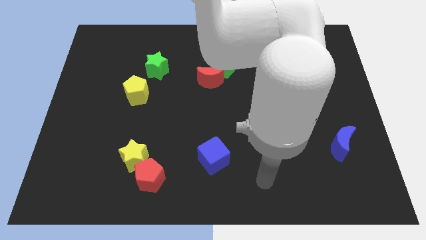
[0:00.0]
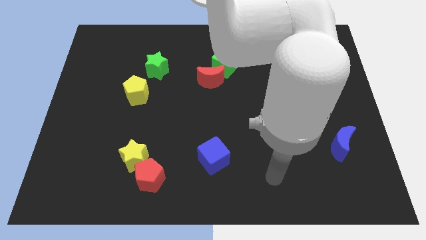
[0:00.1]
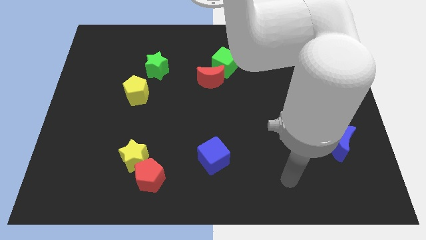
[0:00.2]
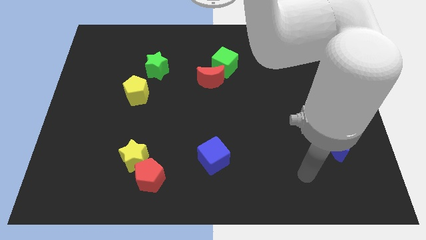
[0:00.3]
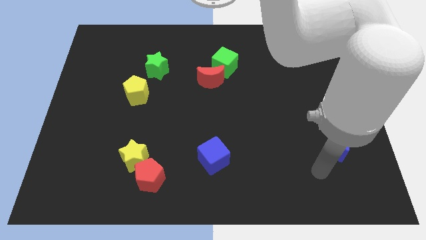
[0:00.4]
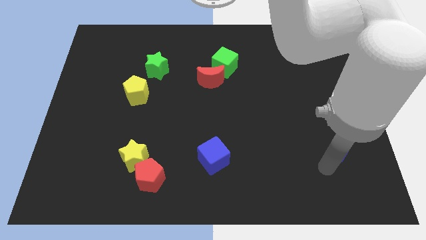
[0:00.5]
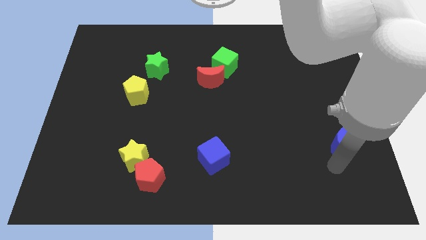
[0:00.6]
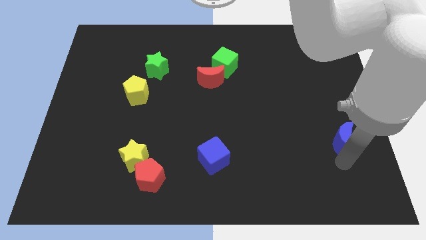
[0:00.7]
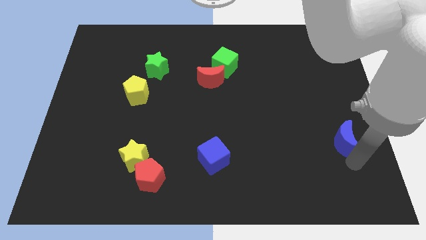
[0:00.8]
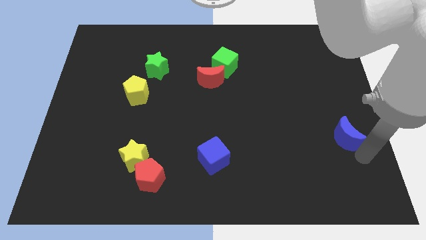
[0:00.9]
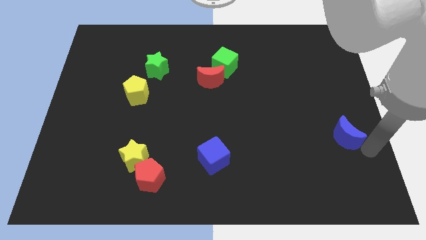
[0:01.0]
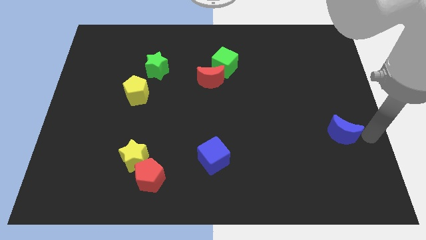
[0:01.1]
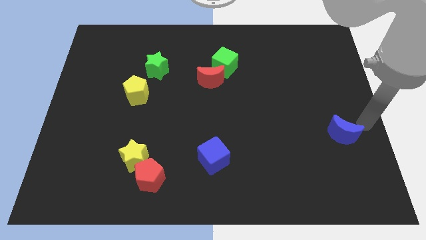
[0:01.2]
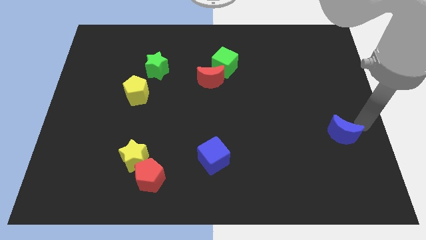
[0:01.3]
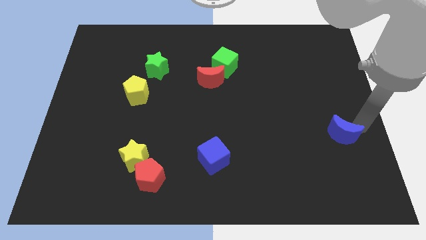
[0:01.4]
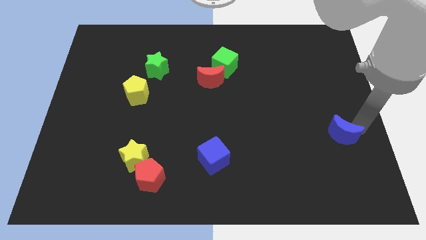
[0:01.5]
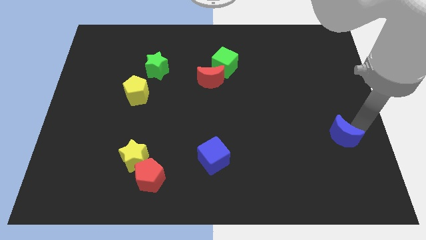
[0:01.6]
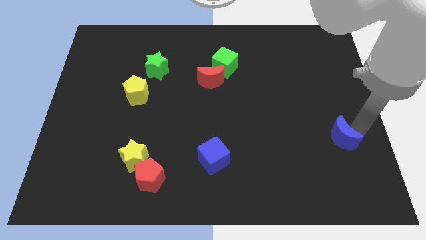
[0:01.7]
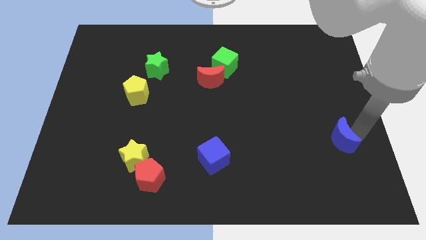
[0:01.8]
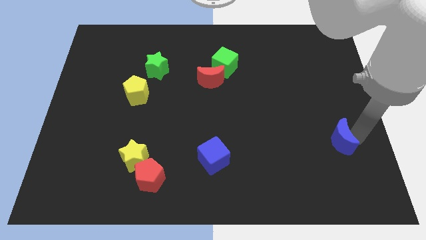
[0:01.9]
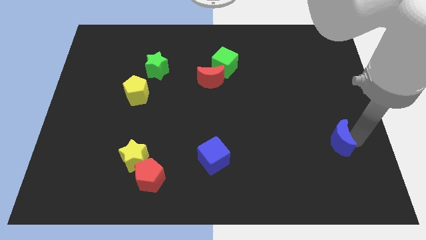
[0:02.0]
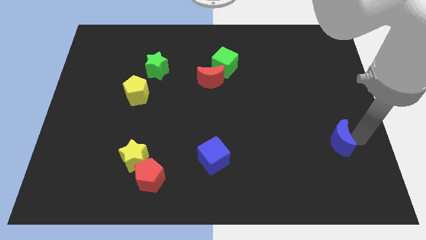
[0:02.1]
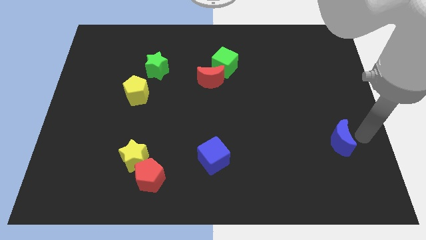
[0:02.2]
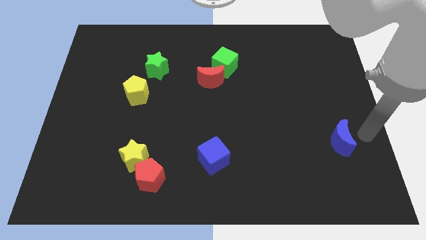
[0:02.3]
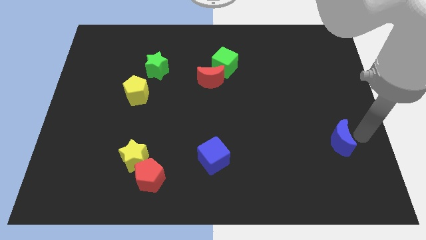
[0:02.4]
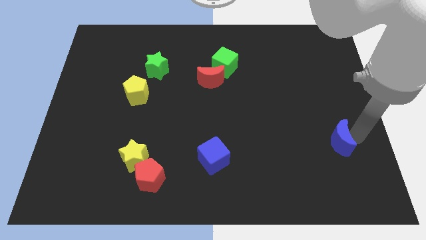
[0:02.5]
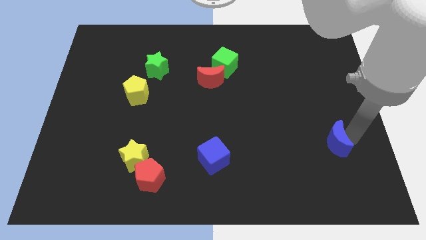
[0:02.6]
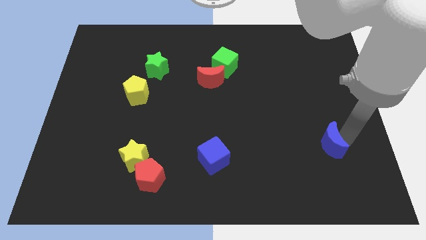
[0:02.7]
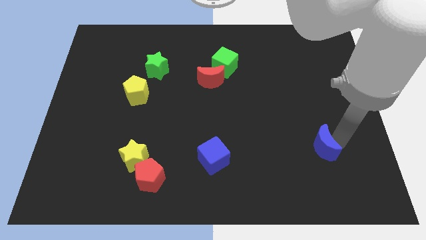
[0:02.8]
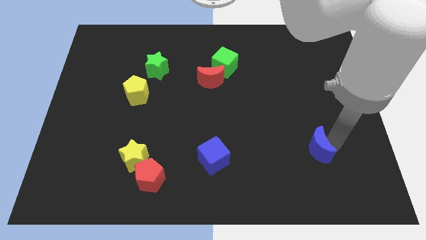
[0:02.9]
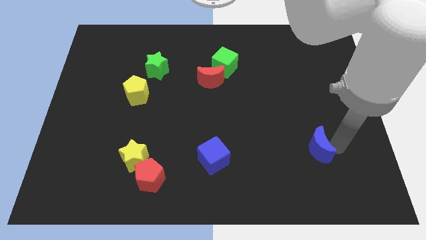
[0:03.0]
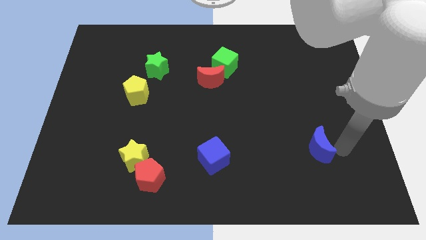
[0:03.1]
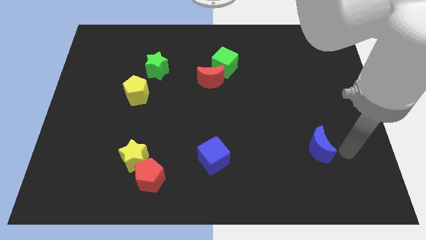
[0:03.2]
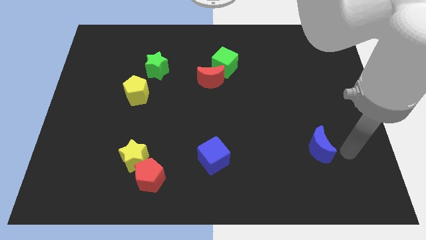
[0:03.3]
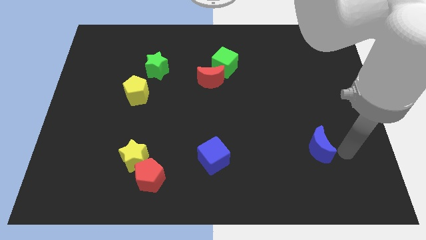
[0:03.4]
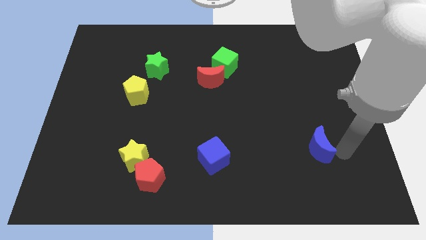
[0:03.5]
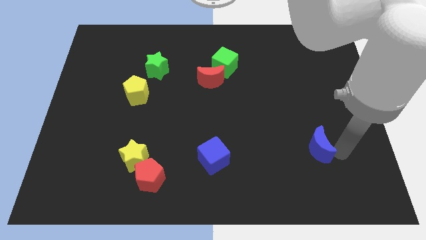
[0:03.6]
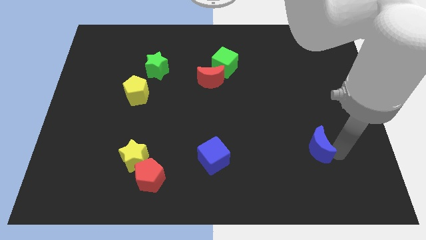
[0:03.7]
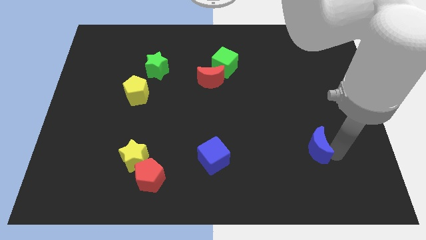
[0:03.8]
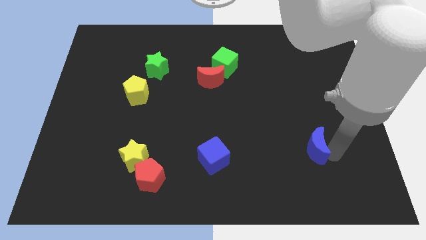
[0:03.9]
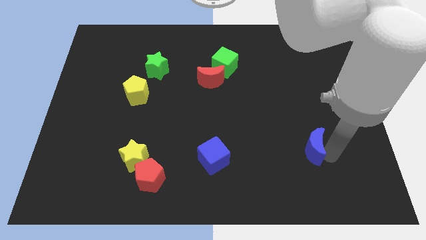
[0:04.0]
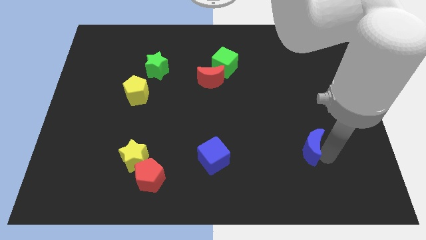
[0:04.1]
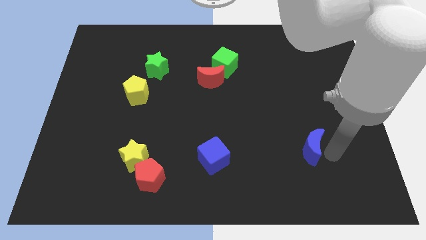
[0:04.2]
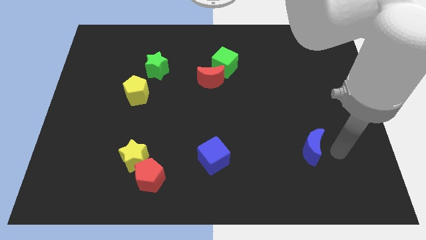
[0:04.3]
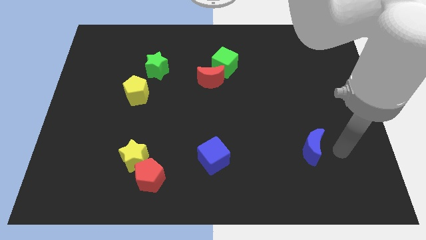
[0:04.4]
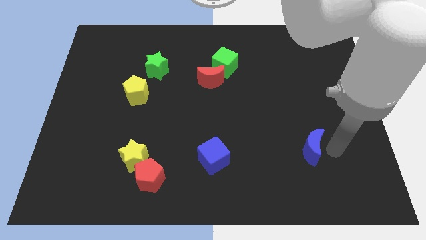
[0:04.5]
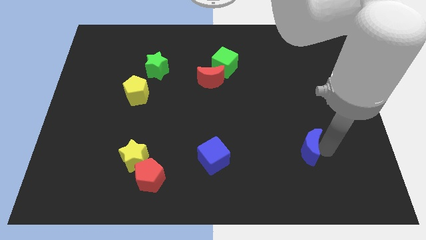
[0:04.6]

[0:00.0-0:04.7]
move the blue moon to the left a little bit

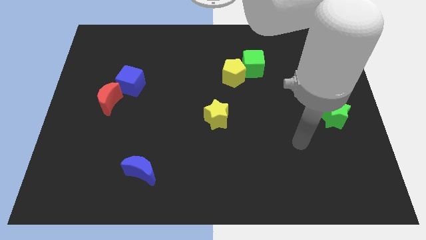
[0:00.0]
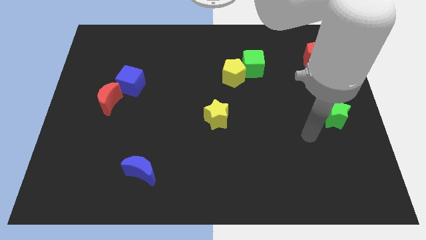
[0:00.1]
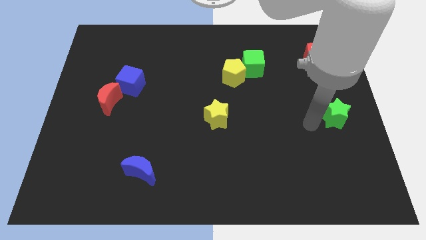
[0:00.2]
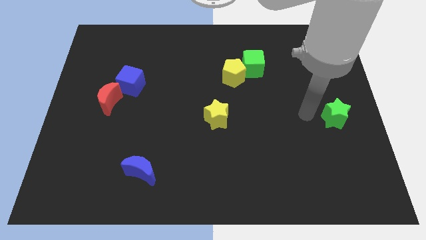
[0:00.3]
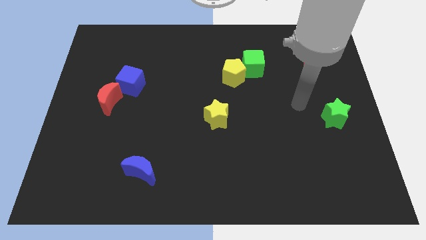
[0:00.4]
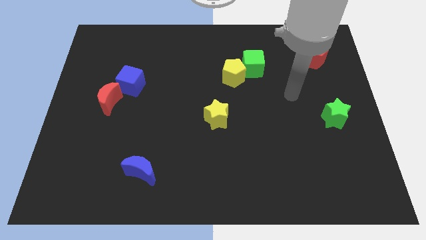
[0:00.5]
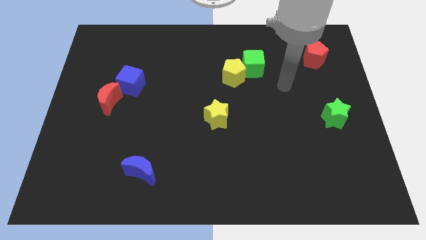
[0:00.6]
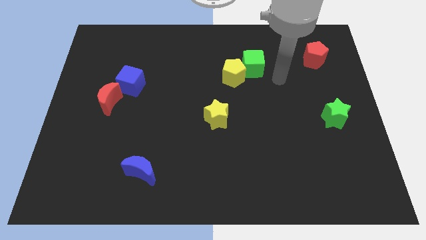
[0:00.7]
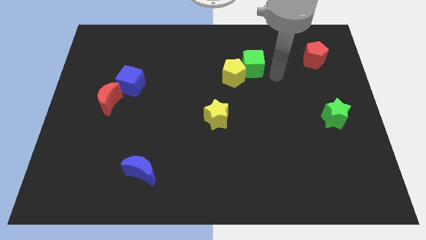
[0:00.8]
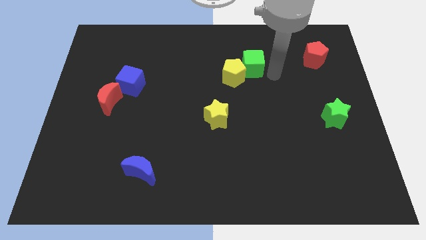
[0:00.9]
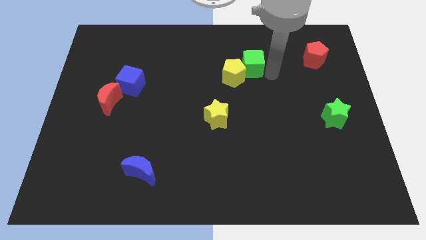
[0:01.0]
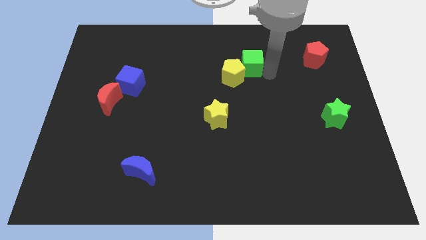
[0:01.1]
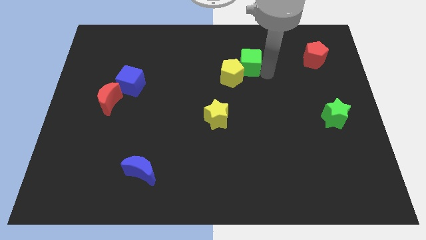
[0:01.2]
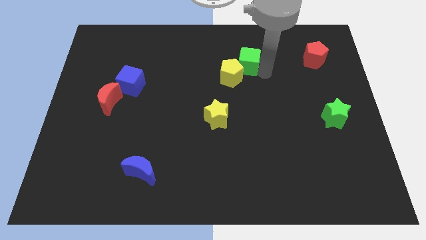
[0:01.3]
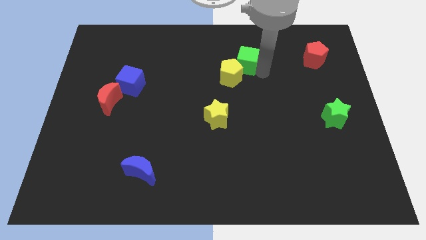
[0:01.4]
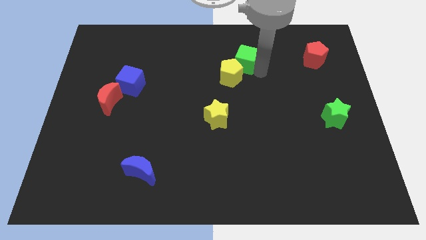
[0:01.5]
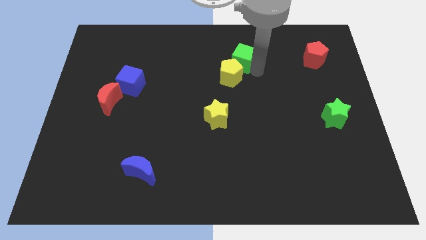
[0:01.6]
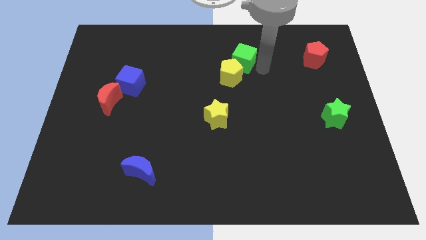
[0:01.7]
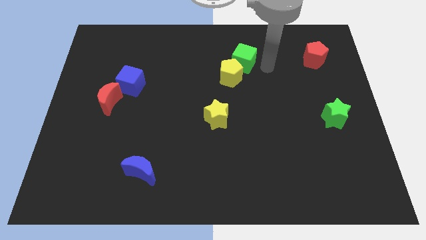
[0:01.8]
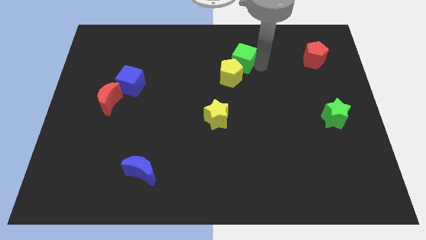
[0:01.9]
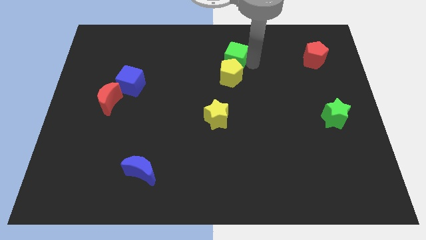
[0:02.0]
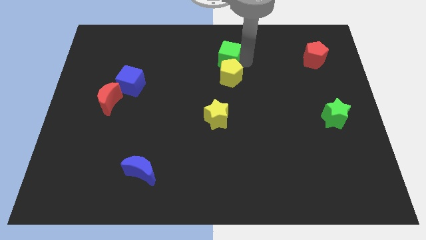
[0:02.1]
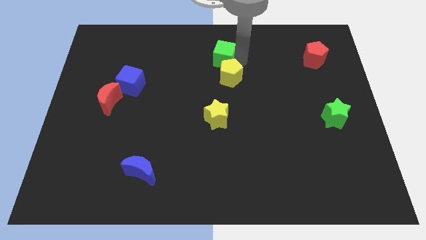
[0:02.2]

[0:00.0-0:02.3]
slide the green cube somewhat to the left

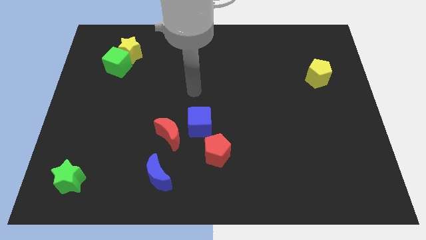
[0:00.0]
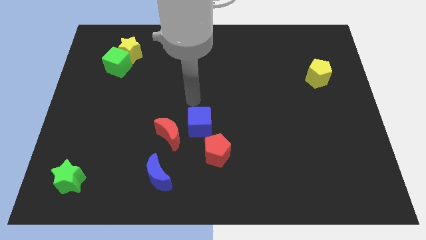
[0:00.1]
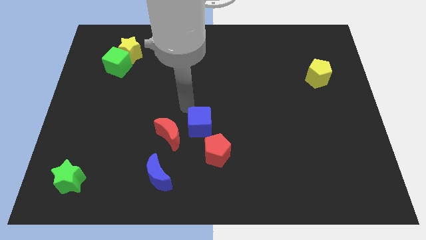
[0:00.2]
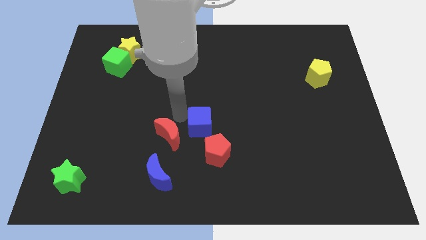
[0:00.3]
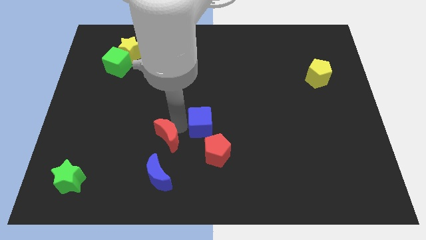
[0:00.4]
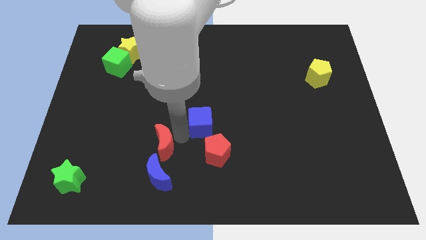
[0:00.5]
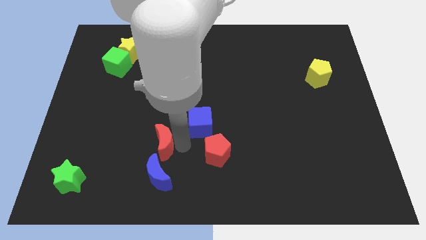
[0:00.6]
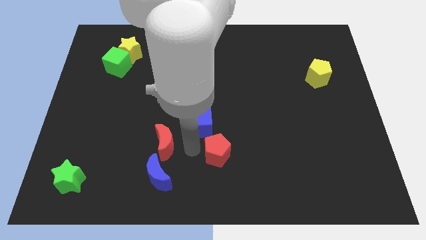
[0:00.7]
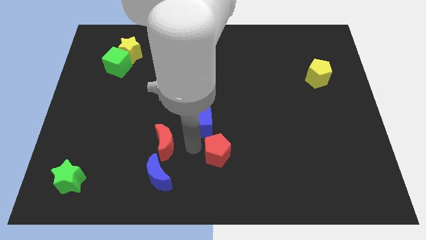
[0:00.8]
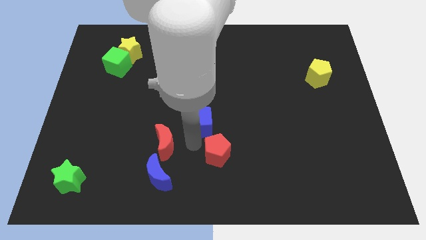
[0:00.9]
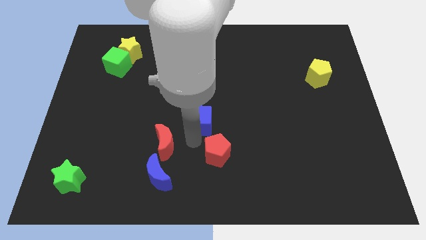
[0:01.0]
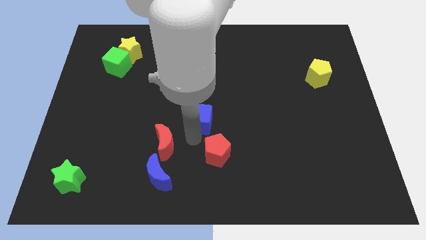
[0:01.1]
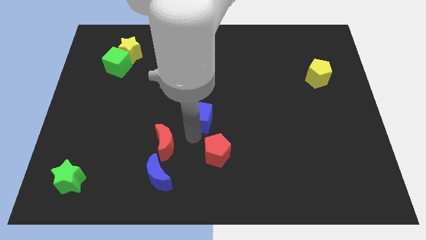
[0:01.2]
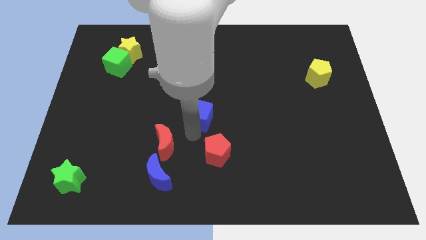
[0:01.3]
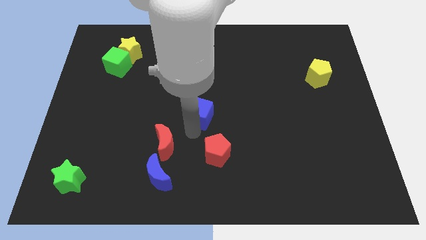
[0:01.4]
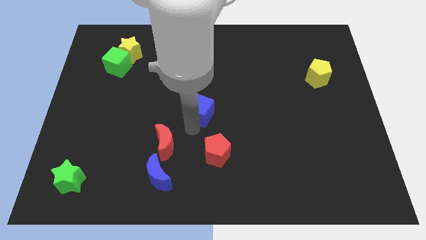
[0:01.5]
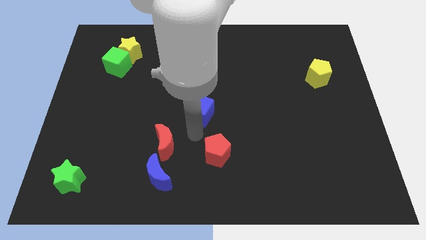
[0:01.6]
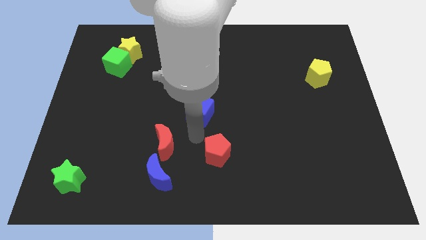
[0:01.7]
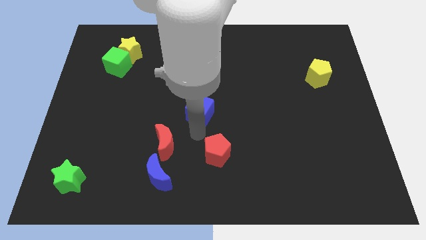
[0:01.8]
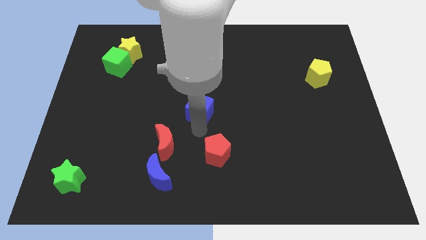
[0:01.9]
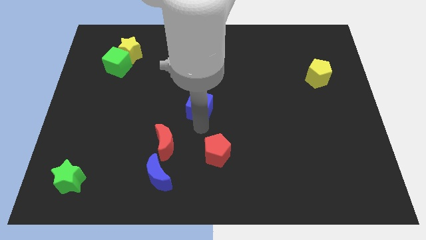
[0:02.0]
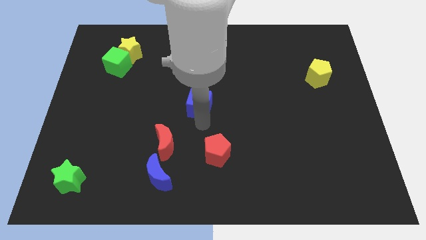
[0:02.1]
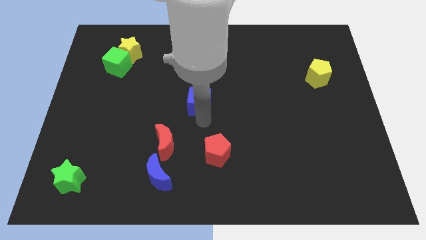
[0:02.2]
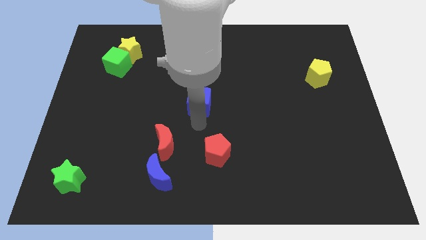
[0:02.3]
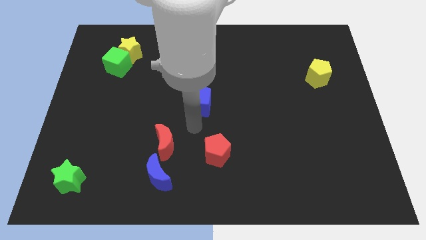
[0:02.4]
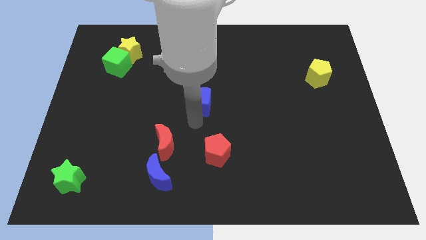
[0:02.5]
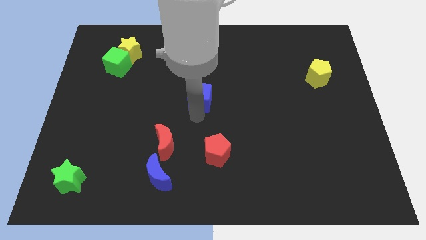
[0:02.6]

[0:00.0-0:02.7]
push the blue cube a little up
